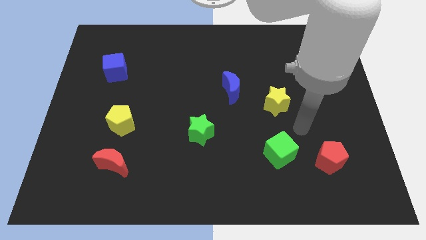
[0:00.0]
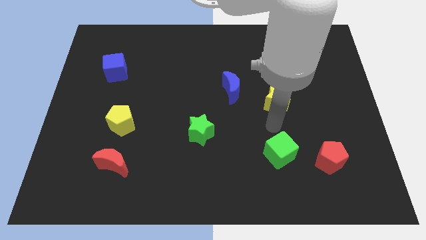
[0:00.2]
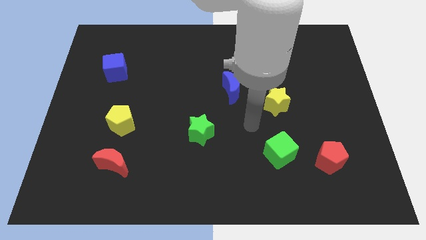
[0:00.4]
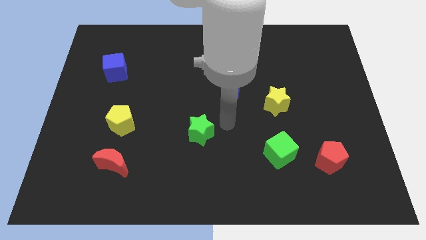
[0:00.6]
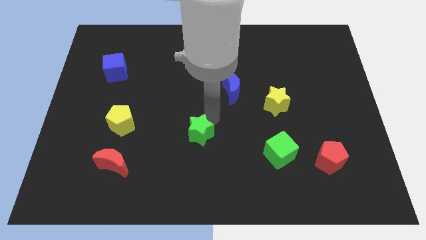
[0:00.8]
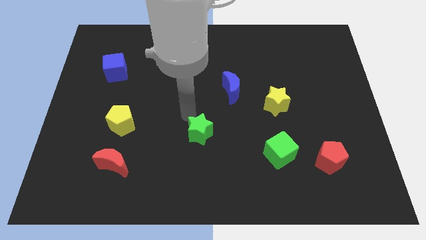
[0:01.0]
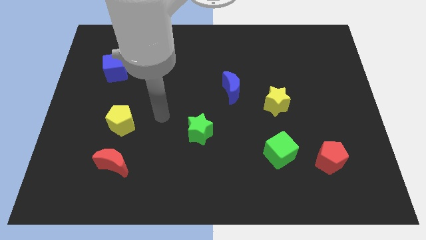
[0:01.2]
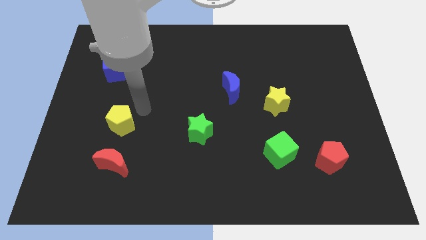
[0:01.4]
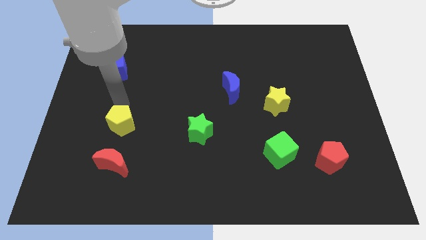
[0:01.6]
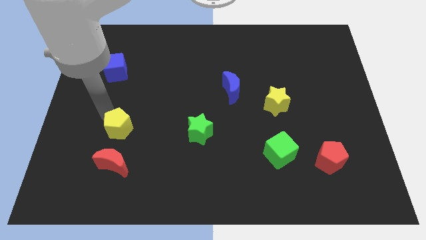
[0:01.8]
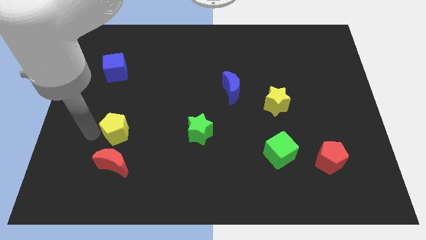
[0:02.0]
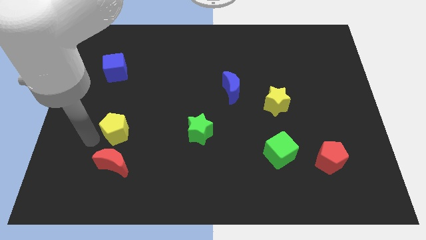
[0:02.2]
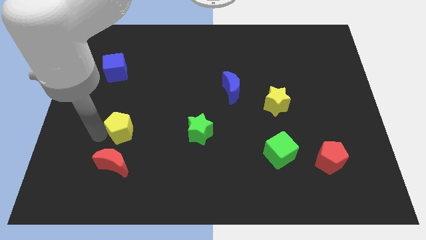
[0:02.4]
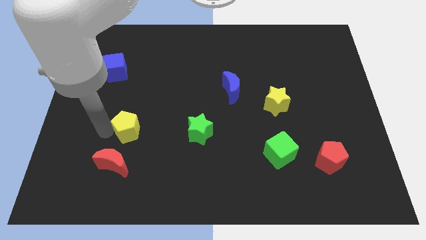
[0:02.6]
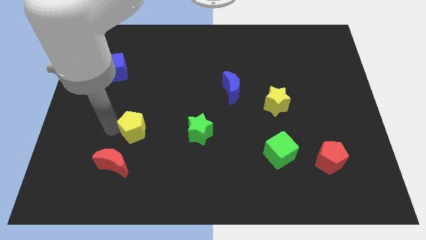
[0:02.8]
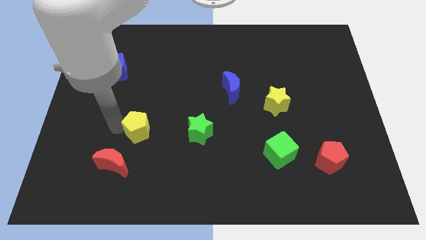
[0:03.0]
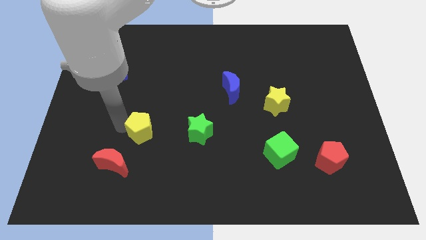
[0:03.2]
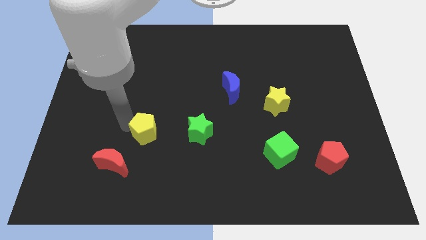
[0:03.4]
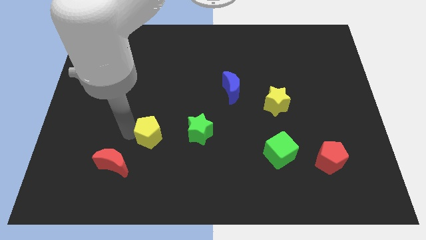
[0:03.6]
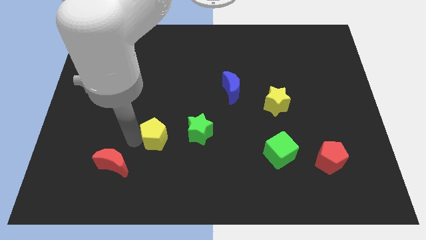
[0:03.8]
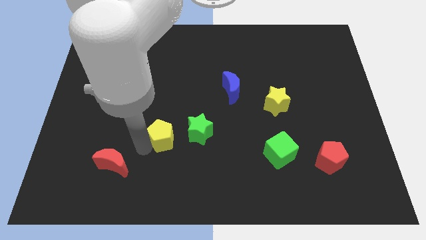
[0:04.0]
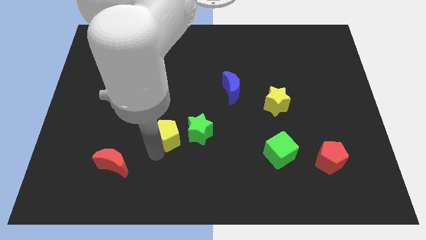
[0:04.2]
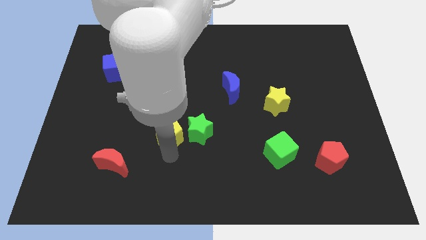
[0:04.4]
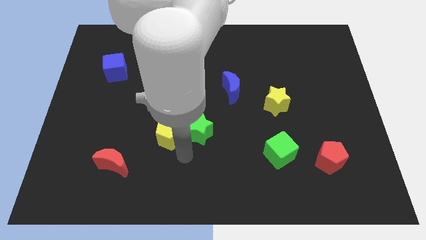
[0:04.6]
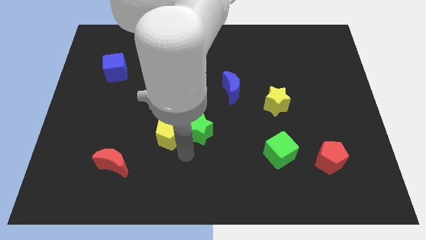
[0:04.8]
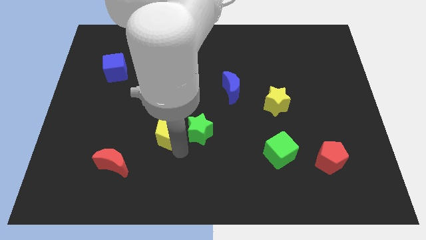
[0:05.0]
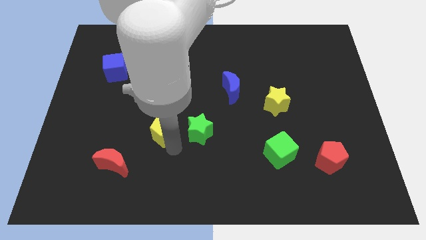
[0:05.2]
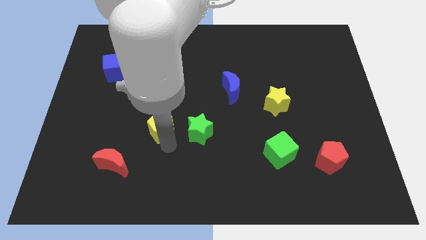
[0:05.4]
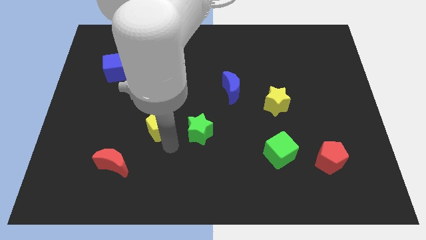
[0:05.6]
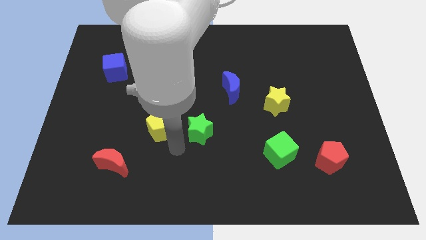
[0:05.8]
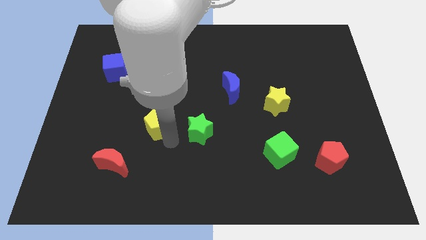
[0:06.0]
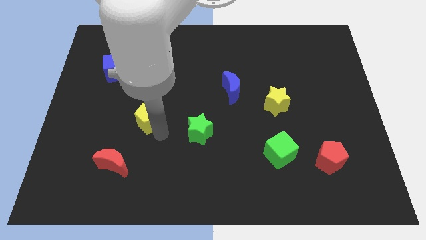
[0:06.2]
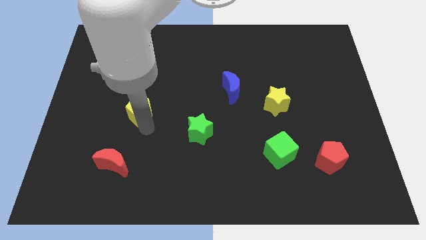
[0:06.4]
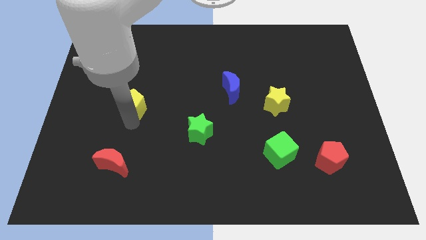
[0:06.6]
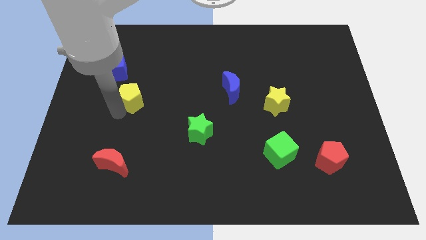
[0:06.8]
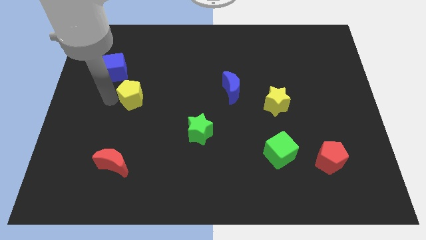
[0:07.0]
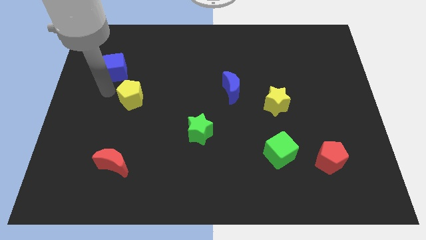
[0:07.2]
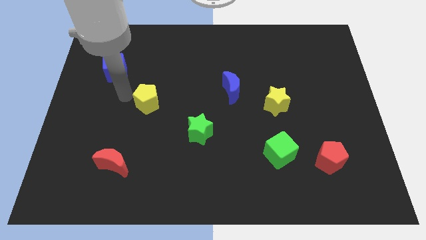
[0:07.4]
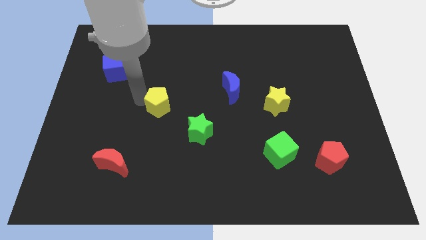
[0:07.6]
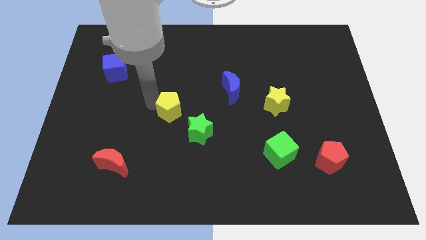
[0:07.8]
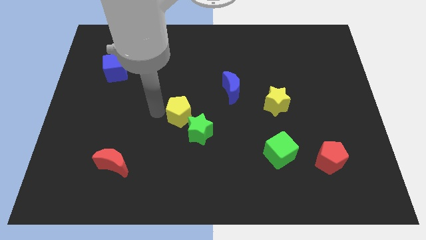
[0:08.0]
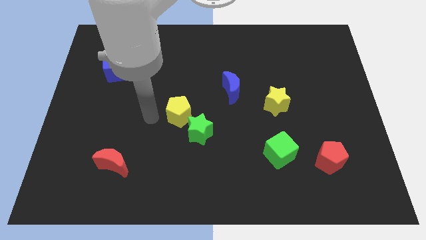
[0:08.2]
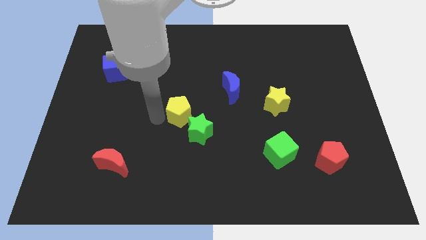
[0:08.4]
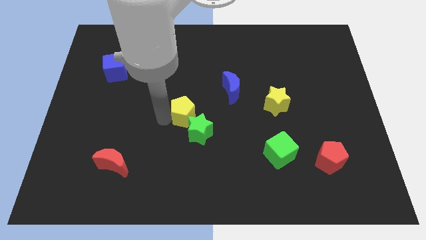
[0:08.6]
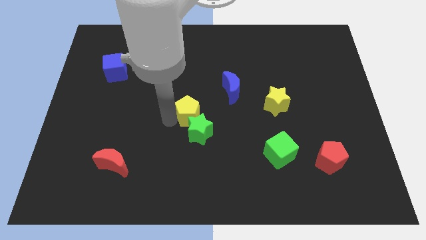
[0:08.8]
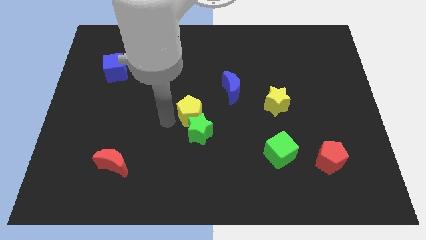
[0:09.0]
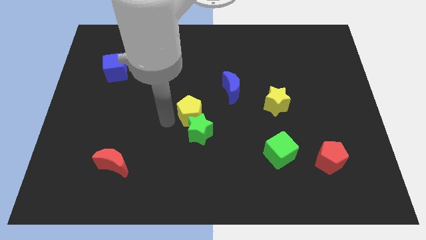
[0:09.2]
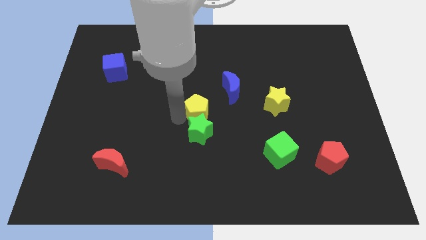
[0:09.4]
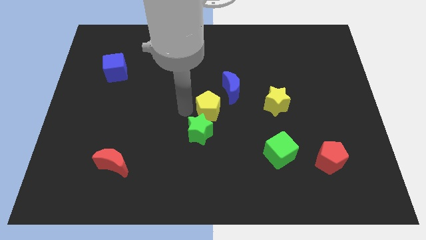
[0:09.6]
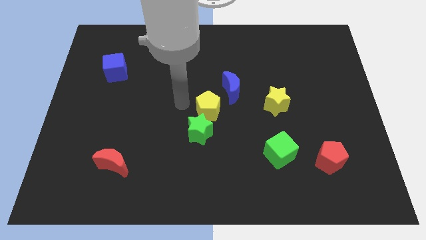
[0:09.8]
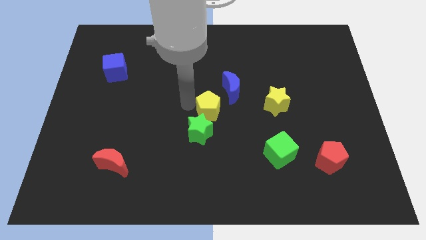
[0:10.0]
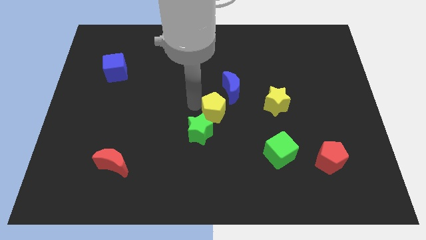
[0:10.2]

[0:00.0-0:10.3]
move the yellow pentagon to the right

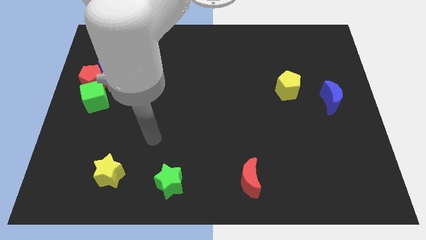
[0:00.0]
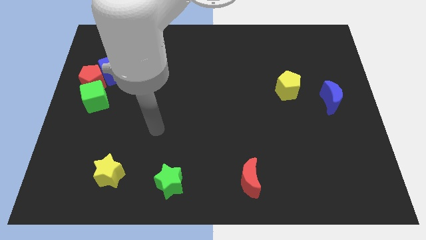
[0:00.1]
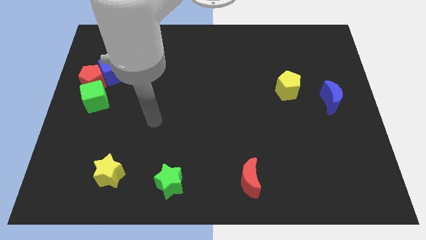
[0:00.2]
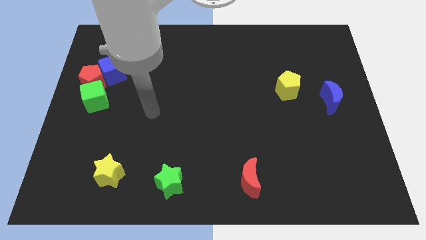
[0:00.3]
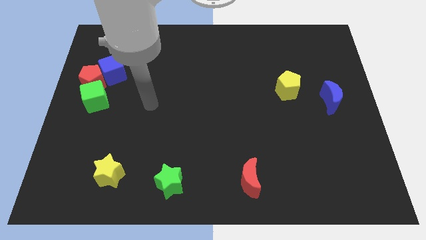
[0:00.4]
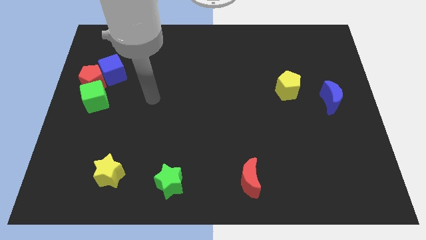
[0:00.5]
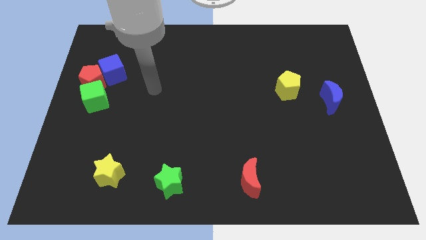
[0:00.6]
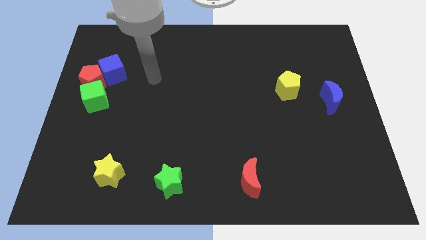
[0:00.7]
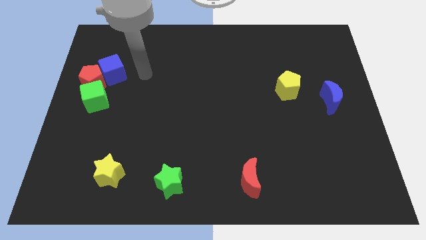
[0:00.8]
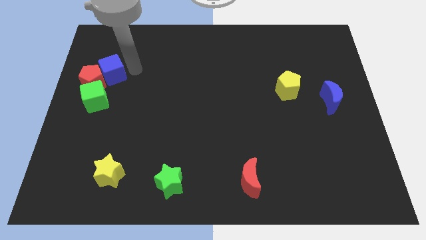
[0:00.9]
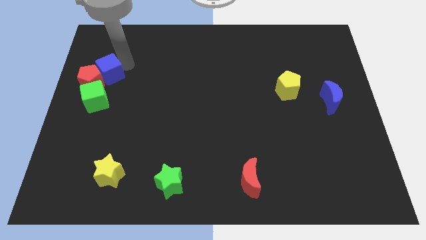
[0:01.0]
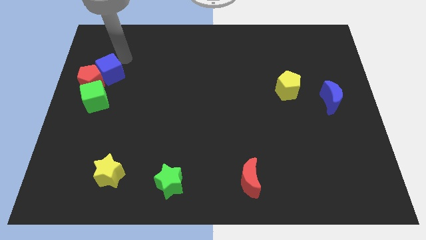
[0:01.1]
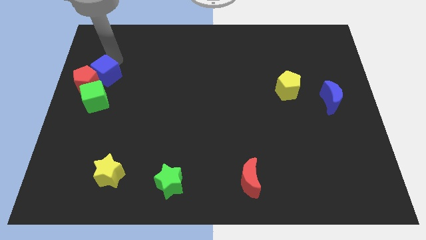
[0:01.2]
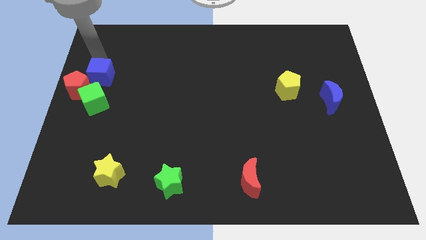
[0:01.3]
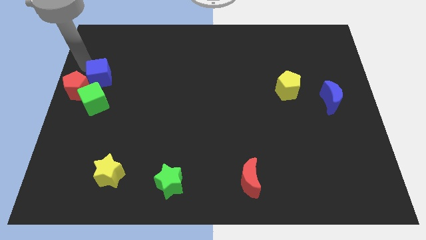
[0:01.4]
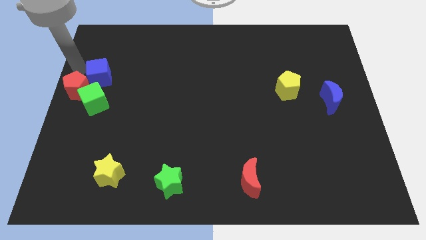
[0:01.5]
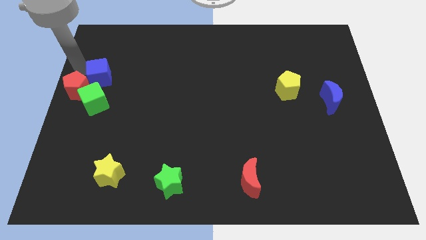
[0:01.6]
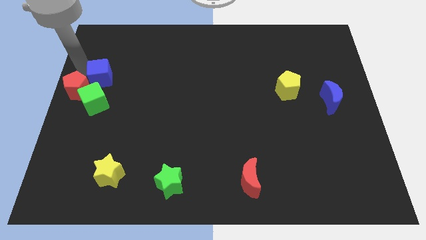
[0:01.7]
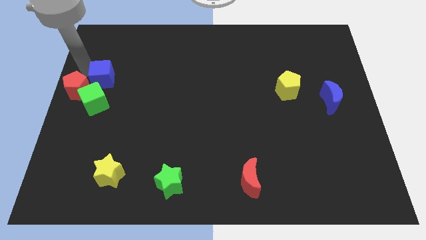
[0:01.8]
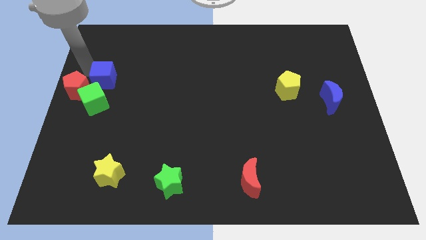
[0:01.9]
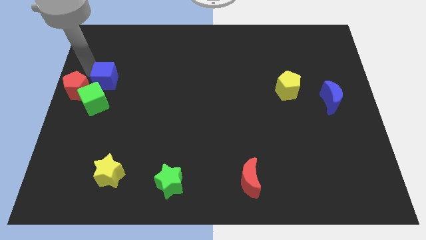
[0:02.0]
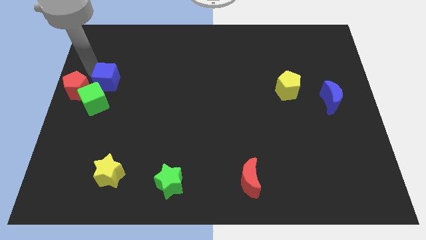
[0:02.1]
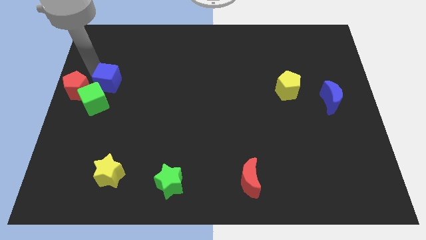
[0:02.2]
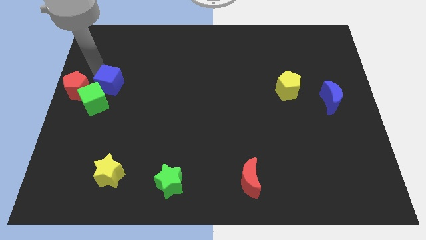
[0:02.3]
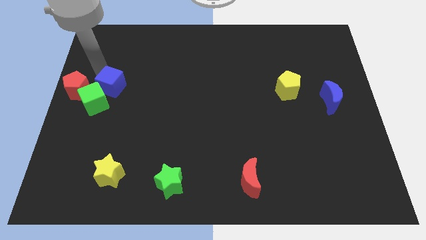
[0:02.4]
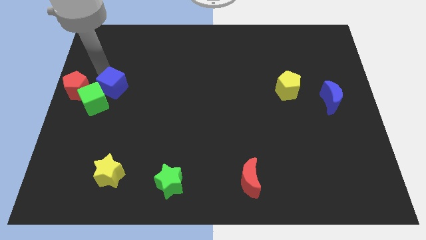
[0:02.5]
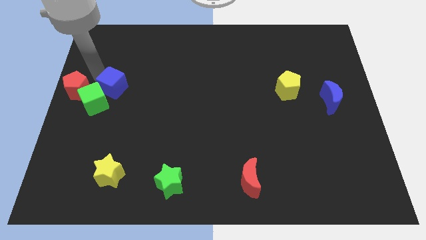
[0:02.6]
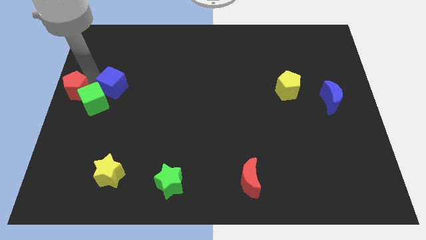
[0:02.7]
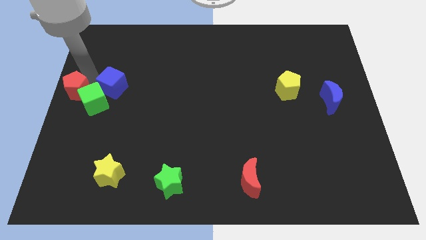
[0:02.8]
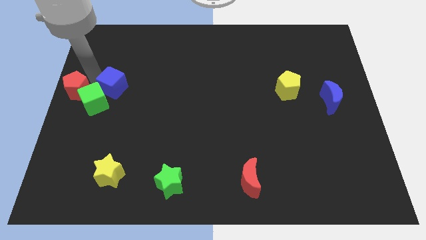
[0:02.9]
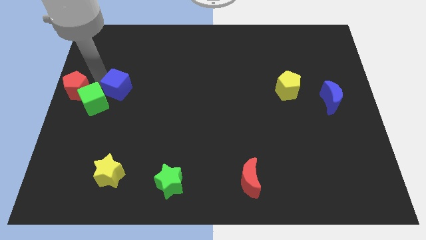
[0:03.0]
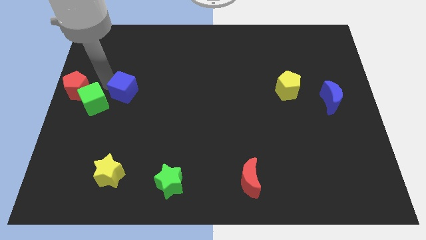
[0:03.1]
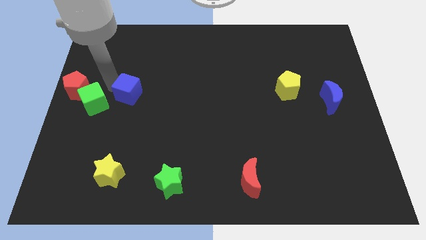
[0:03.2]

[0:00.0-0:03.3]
slightly move the blue cube down and then right
